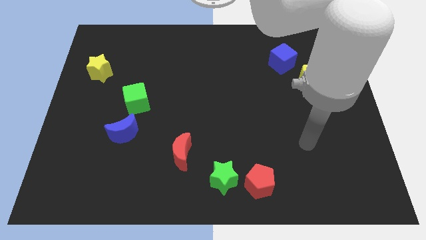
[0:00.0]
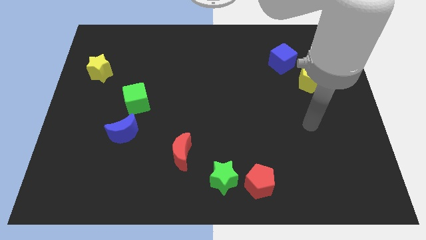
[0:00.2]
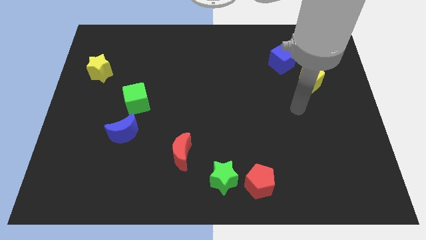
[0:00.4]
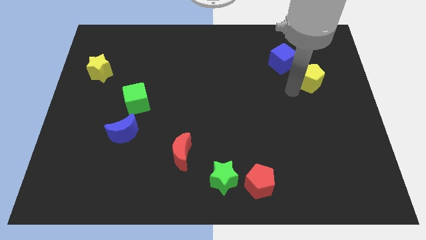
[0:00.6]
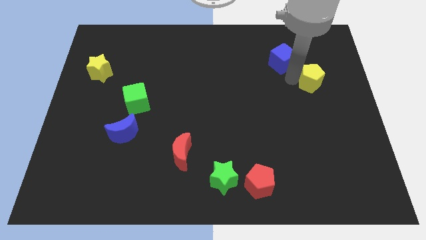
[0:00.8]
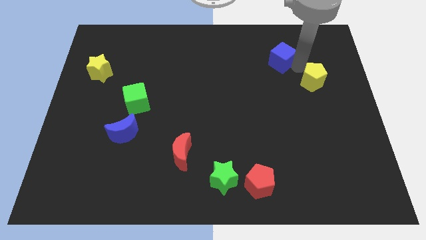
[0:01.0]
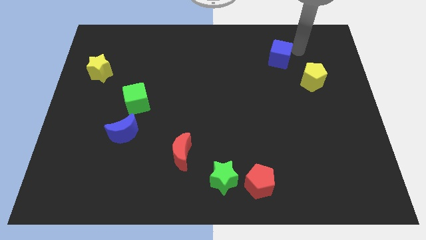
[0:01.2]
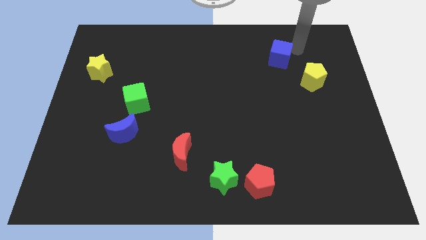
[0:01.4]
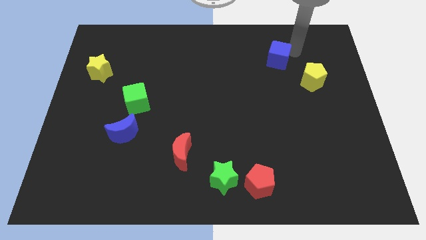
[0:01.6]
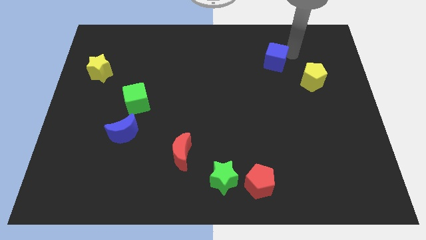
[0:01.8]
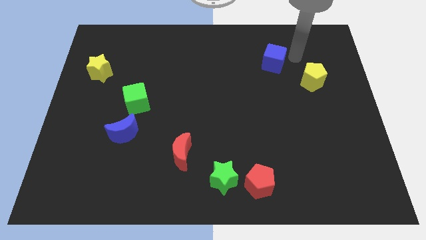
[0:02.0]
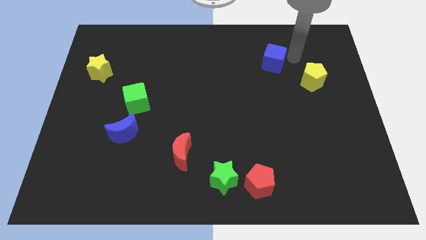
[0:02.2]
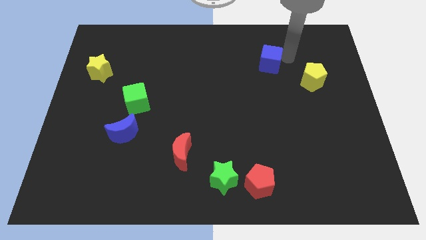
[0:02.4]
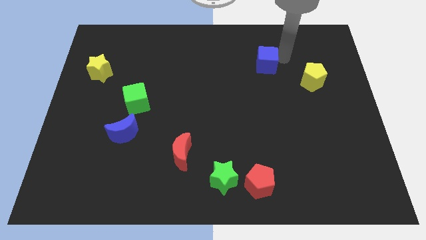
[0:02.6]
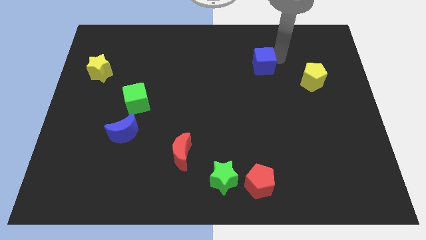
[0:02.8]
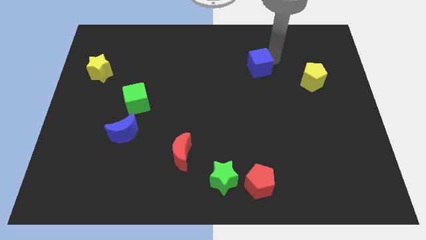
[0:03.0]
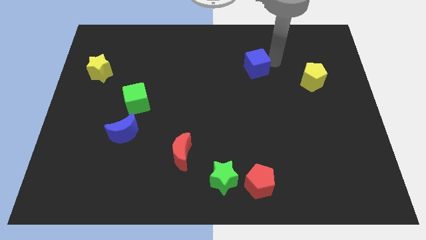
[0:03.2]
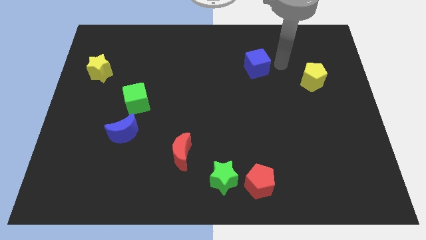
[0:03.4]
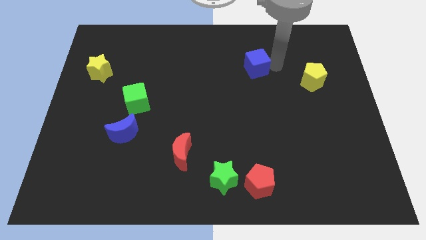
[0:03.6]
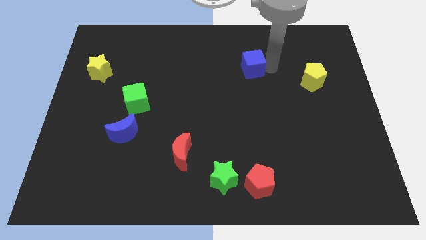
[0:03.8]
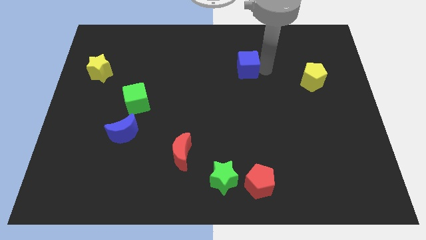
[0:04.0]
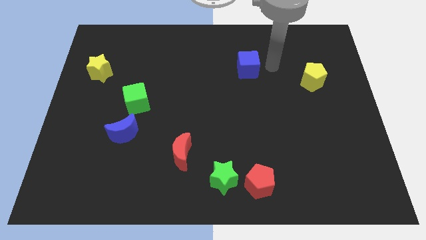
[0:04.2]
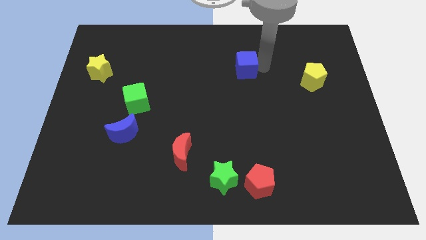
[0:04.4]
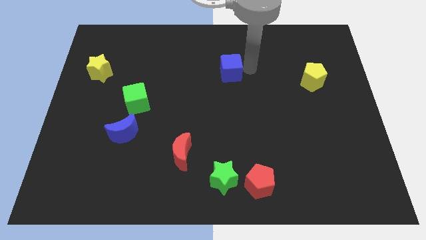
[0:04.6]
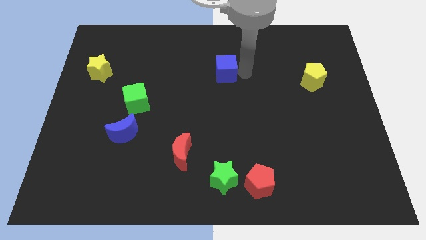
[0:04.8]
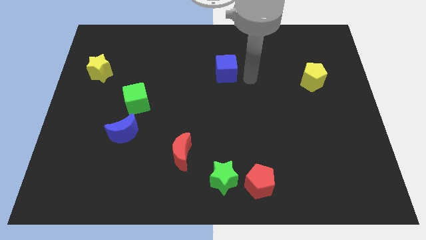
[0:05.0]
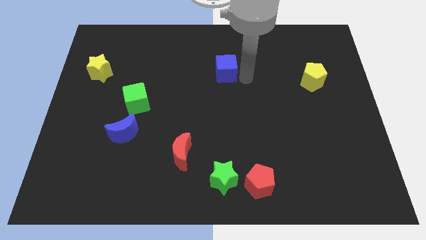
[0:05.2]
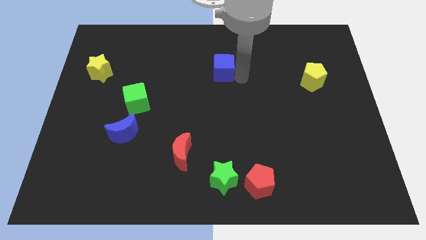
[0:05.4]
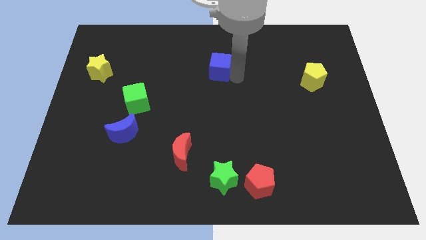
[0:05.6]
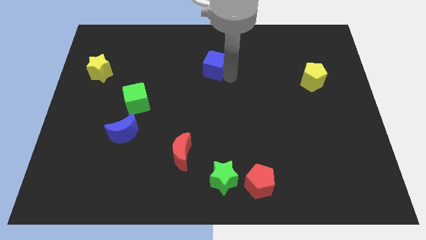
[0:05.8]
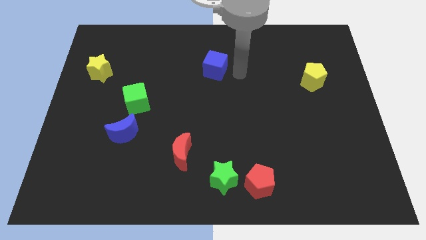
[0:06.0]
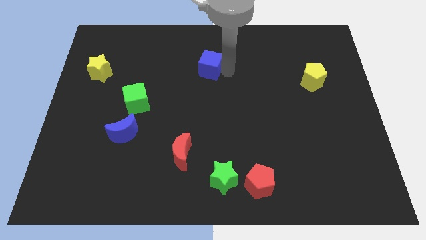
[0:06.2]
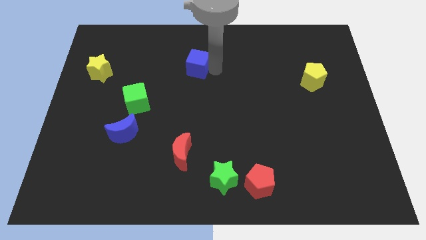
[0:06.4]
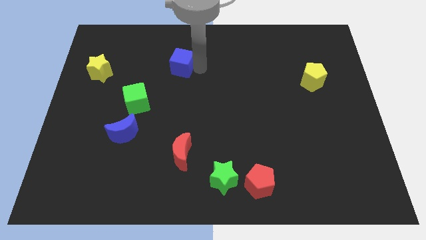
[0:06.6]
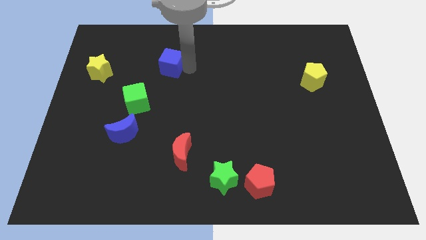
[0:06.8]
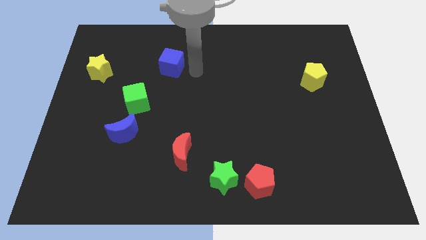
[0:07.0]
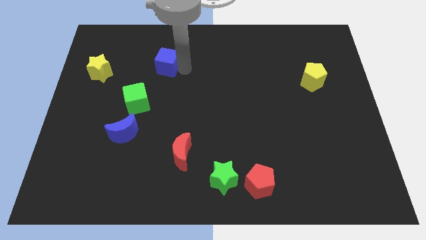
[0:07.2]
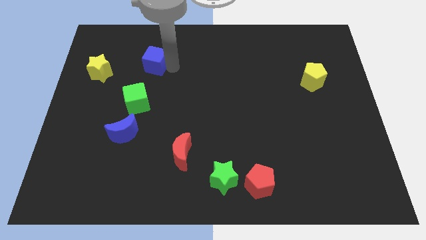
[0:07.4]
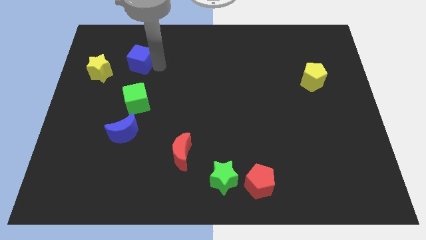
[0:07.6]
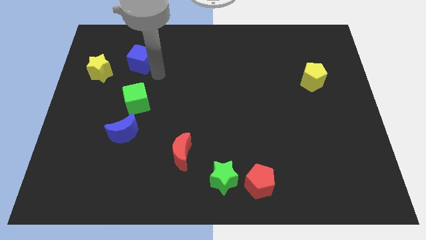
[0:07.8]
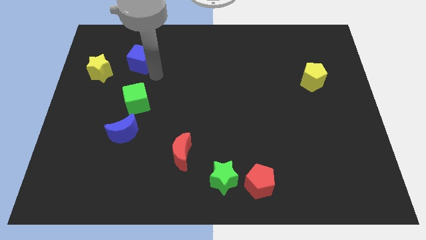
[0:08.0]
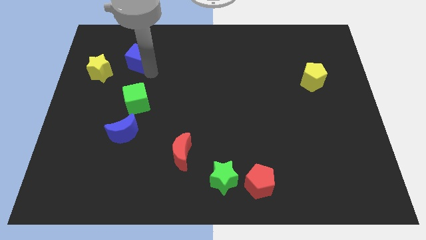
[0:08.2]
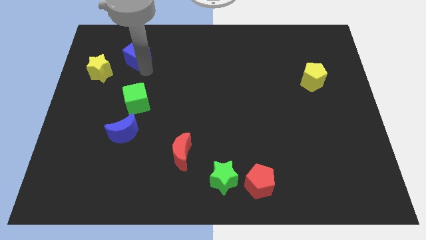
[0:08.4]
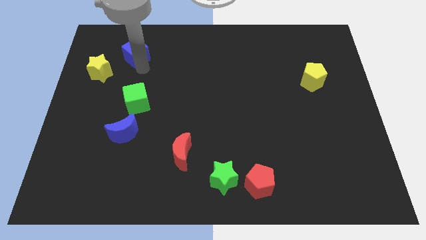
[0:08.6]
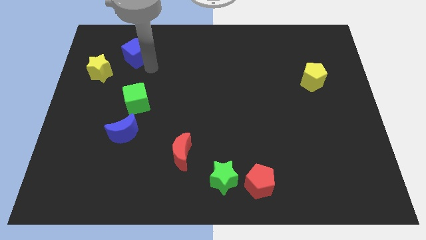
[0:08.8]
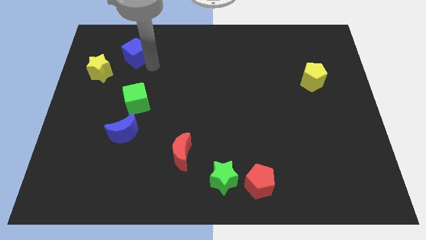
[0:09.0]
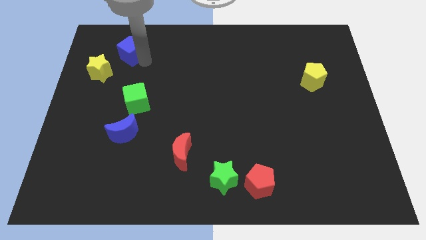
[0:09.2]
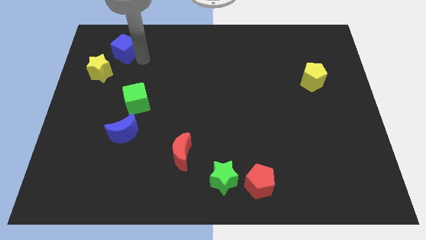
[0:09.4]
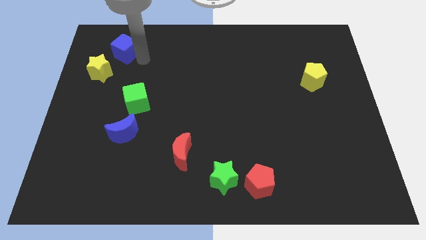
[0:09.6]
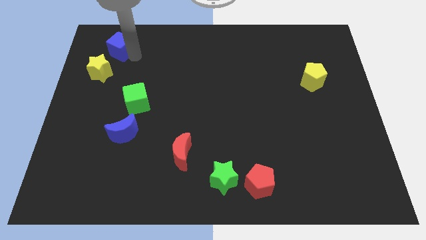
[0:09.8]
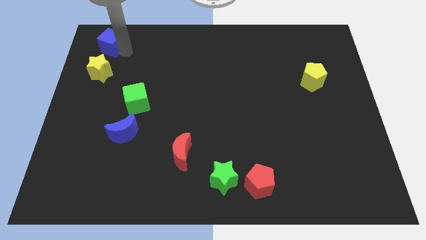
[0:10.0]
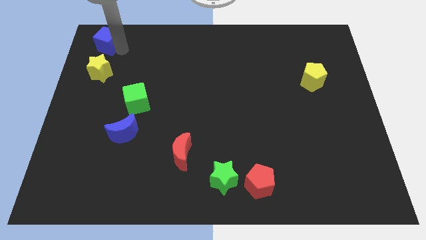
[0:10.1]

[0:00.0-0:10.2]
move the blue cube to the top left of the board

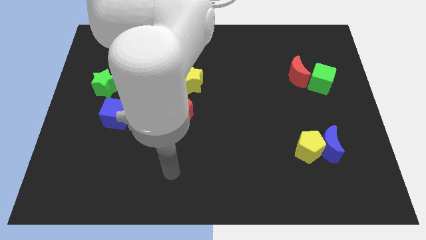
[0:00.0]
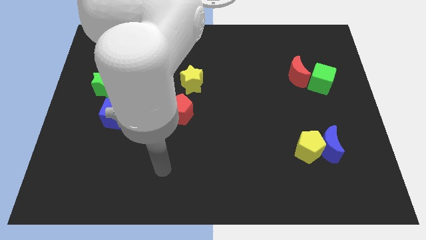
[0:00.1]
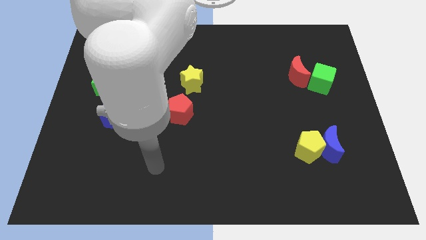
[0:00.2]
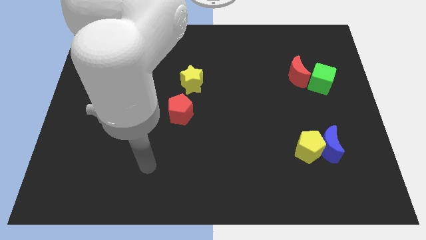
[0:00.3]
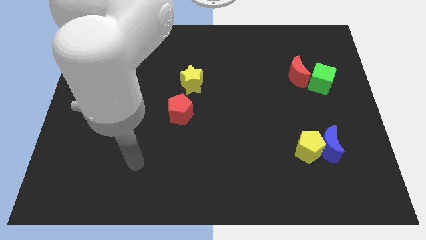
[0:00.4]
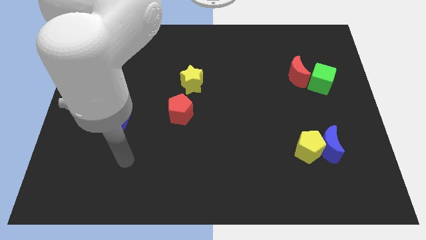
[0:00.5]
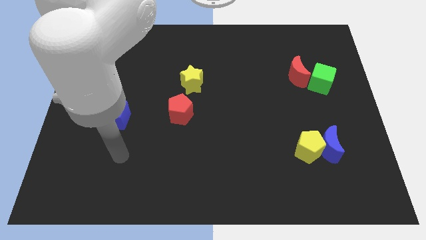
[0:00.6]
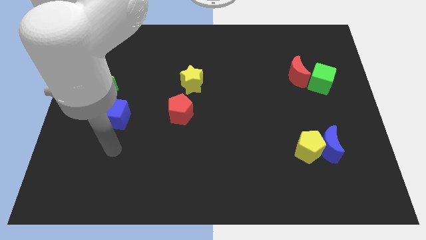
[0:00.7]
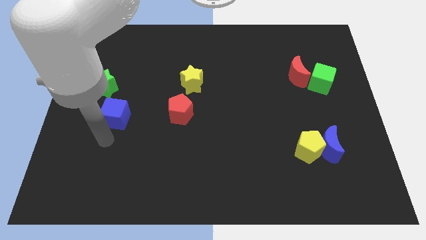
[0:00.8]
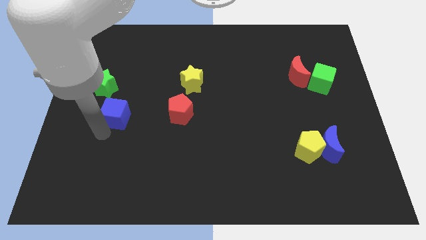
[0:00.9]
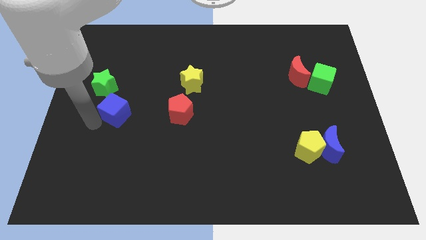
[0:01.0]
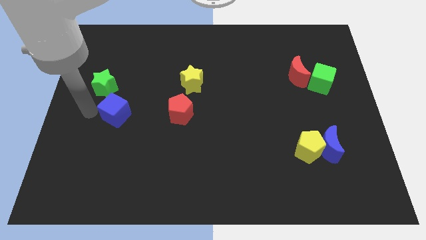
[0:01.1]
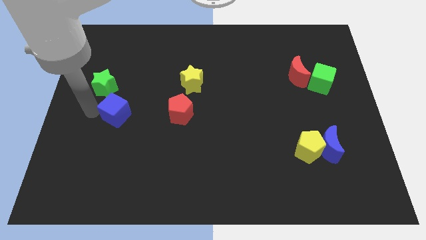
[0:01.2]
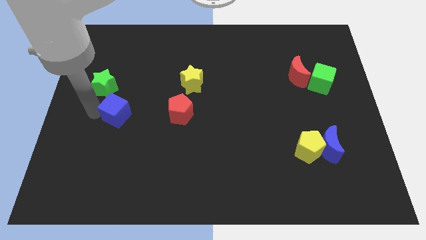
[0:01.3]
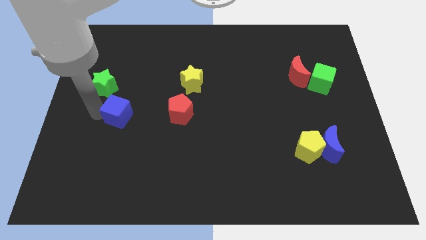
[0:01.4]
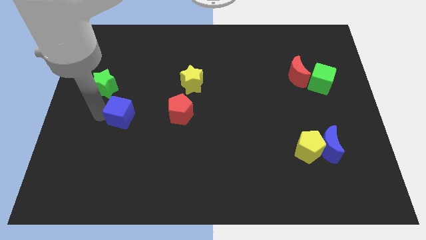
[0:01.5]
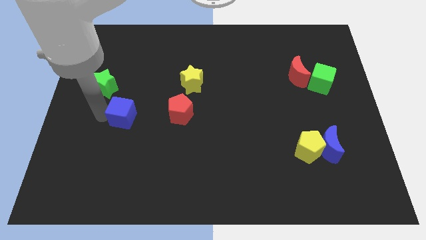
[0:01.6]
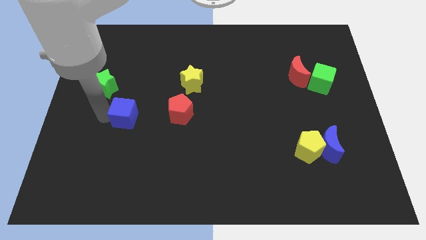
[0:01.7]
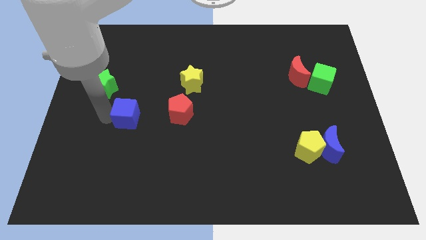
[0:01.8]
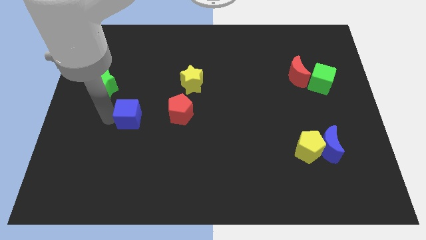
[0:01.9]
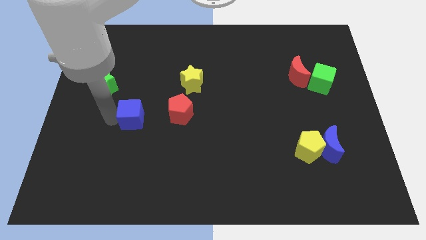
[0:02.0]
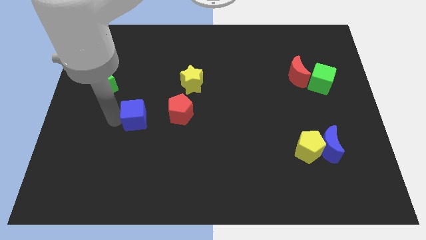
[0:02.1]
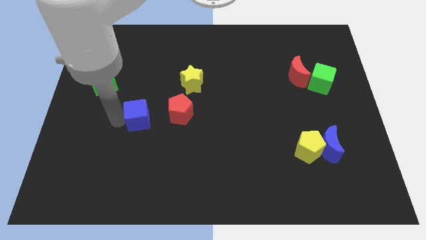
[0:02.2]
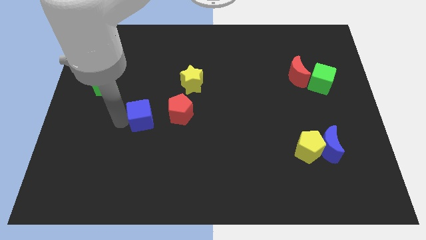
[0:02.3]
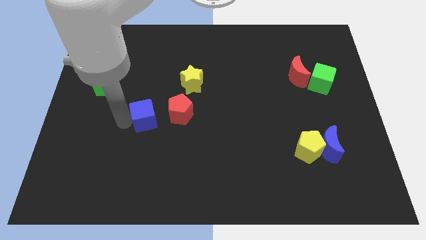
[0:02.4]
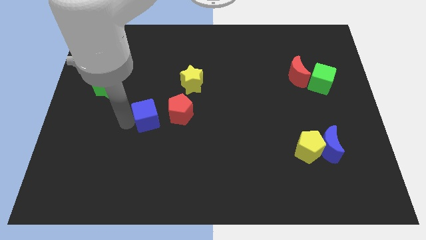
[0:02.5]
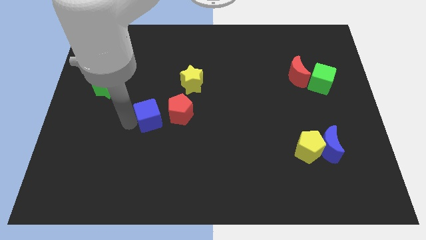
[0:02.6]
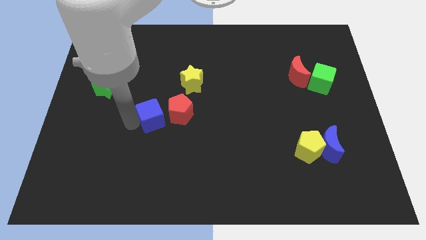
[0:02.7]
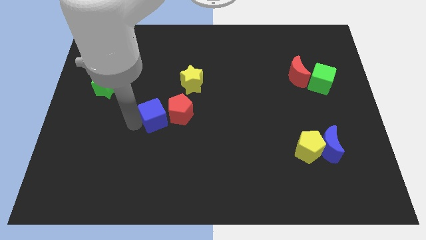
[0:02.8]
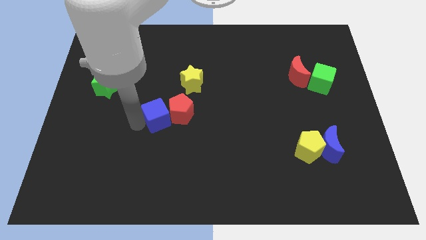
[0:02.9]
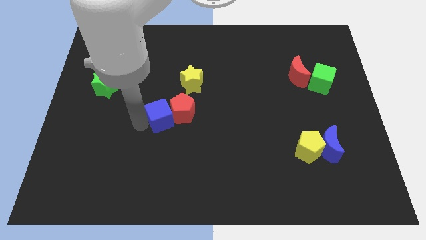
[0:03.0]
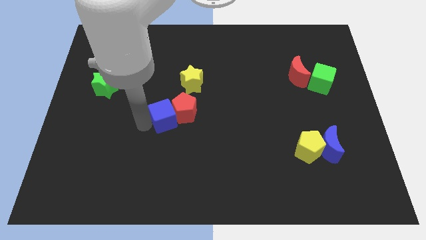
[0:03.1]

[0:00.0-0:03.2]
put the blue cube to the middle of the board
